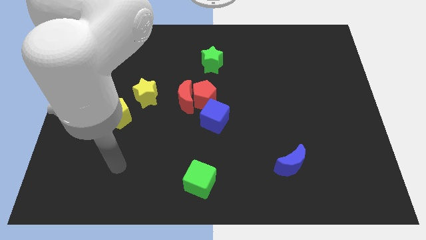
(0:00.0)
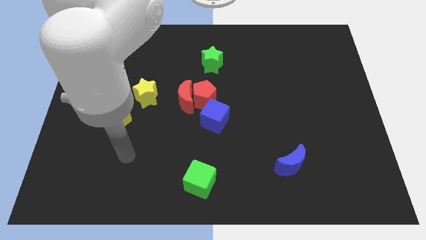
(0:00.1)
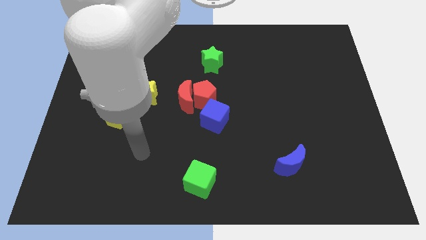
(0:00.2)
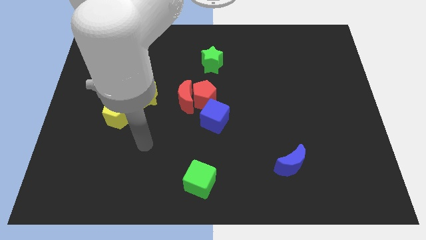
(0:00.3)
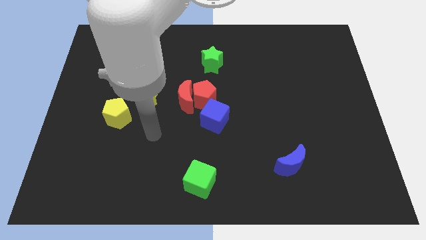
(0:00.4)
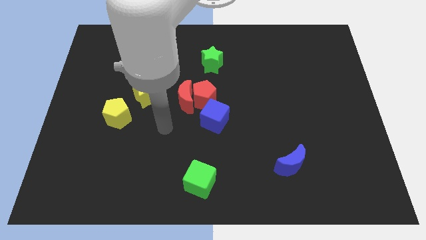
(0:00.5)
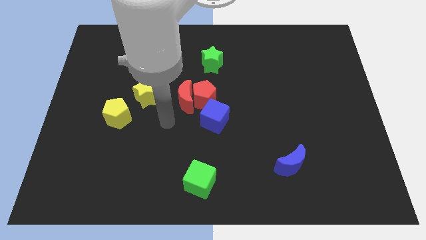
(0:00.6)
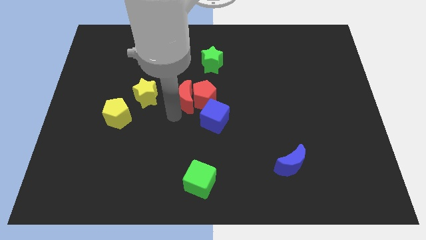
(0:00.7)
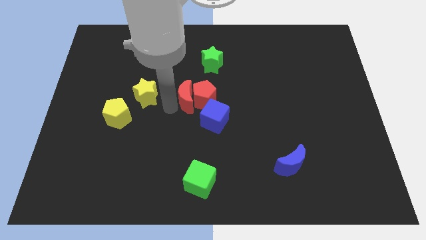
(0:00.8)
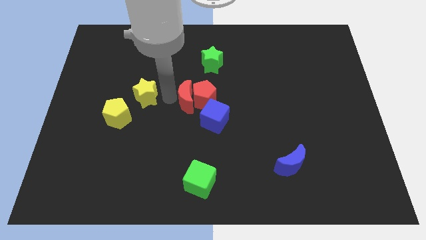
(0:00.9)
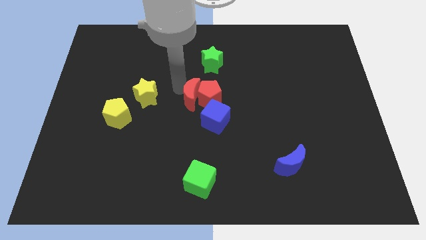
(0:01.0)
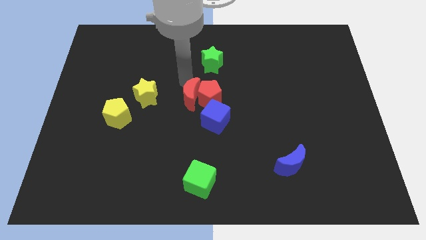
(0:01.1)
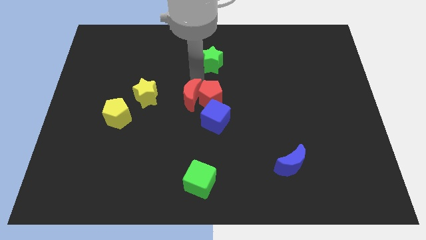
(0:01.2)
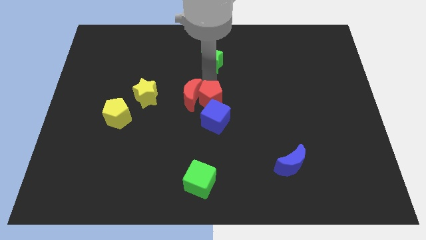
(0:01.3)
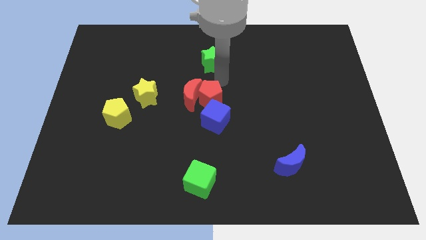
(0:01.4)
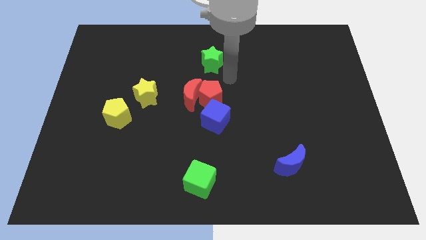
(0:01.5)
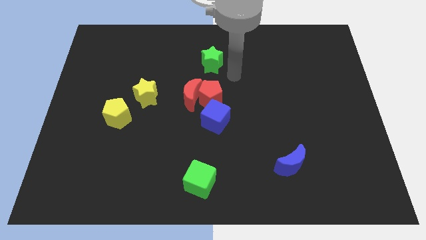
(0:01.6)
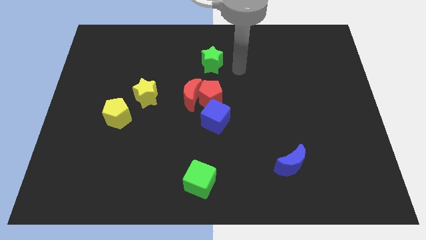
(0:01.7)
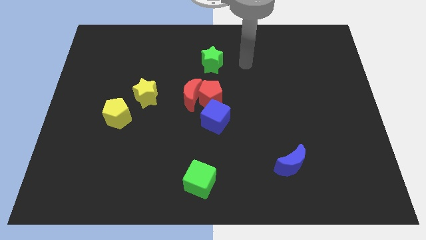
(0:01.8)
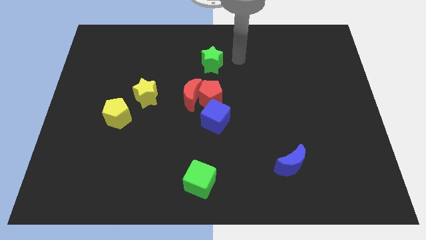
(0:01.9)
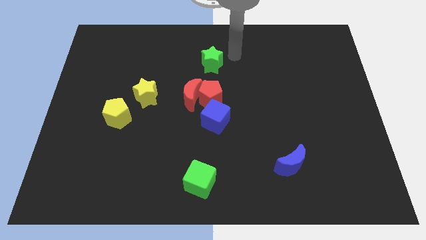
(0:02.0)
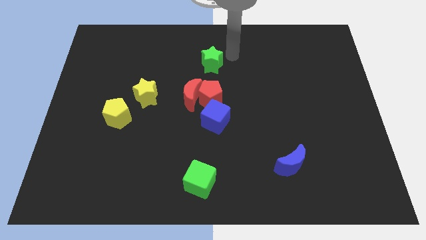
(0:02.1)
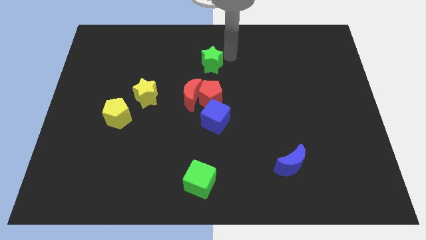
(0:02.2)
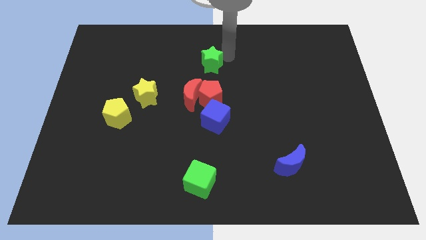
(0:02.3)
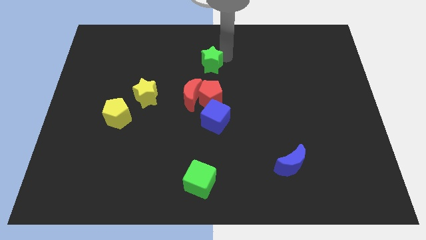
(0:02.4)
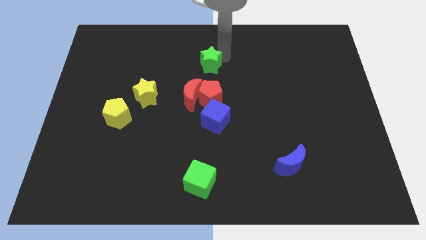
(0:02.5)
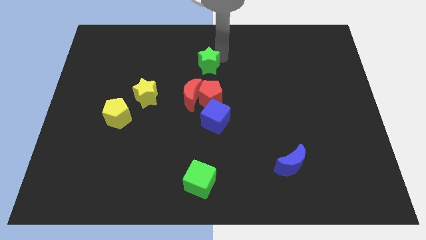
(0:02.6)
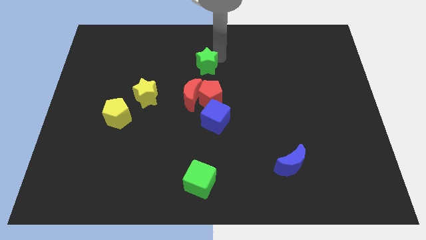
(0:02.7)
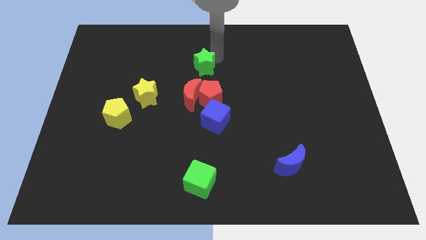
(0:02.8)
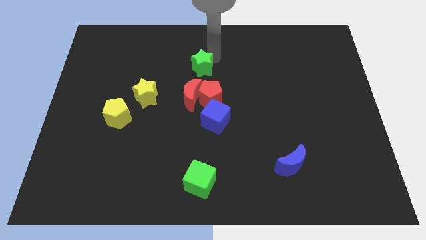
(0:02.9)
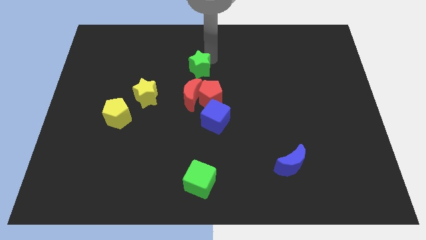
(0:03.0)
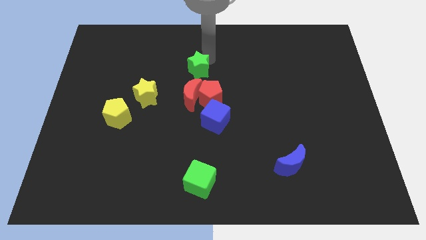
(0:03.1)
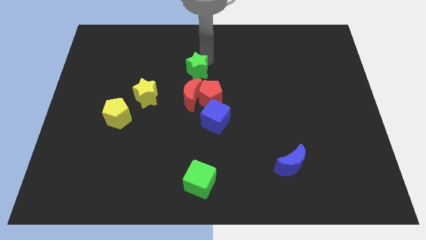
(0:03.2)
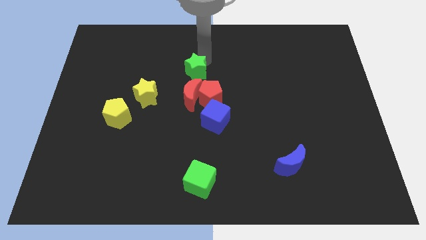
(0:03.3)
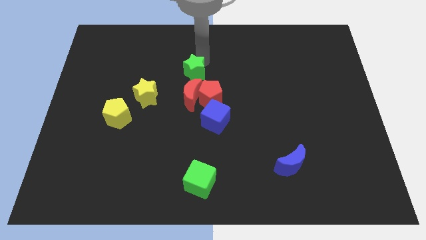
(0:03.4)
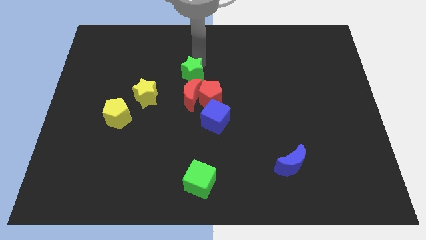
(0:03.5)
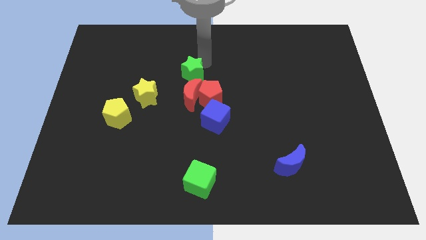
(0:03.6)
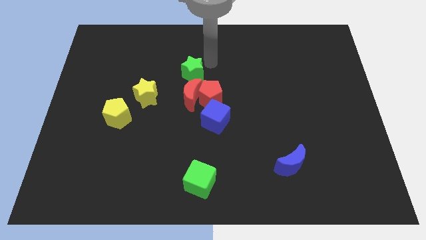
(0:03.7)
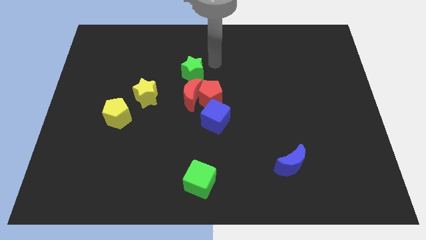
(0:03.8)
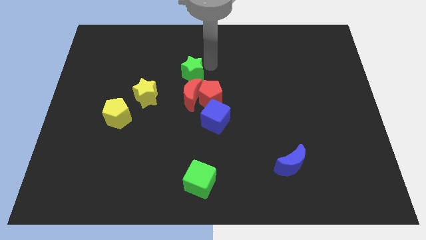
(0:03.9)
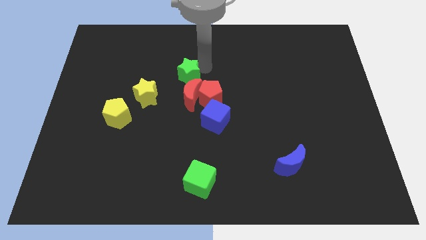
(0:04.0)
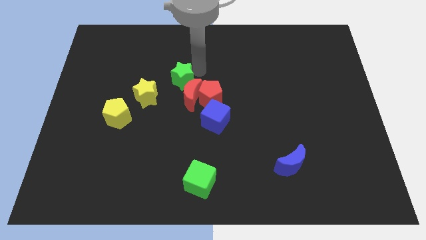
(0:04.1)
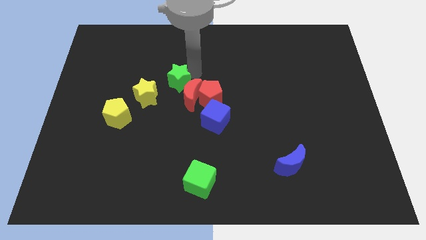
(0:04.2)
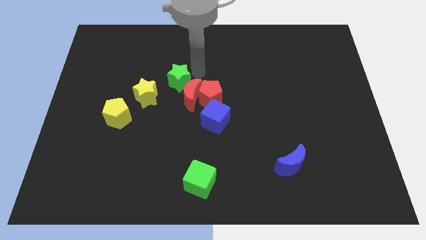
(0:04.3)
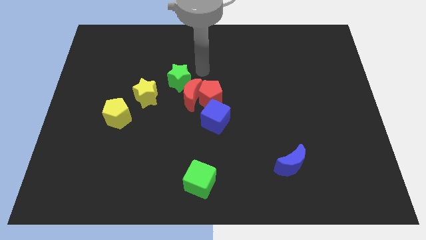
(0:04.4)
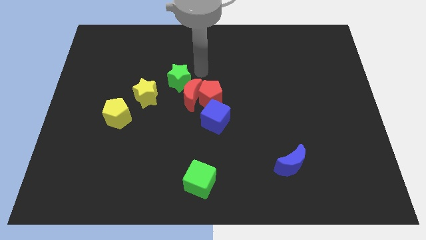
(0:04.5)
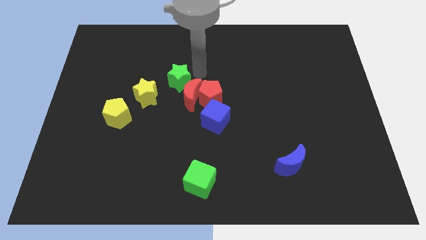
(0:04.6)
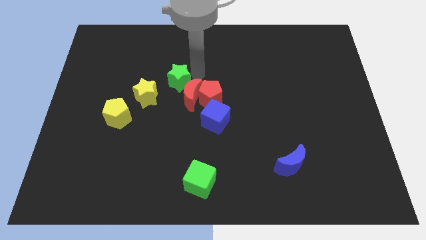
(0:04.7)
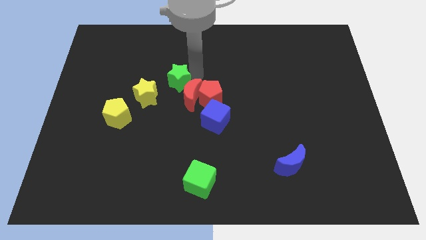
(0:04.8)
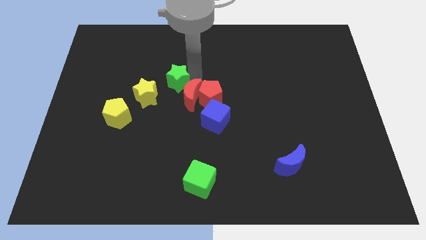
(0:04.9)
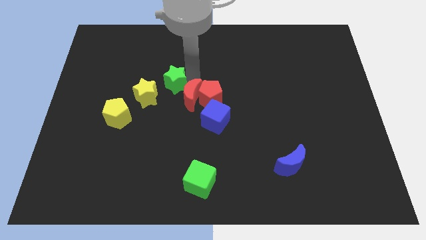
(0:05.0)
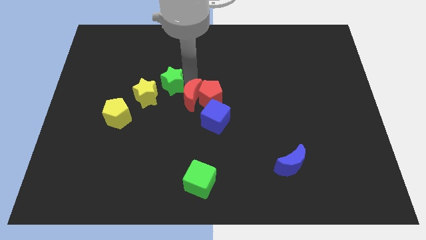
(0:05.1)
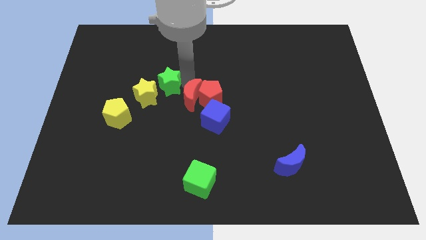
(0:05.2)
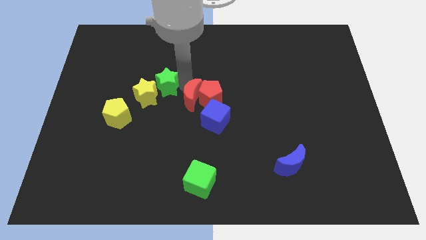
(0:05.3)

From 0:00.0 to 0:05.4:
put the green star to the yellow star

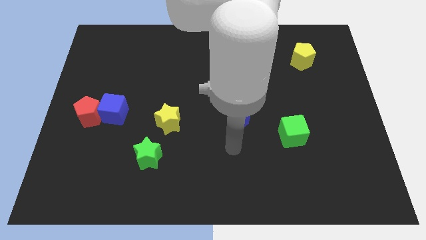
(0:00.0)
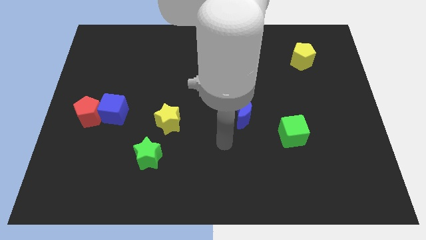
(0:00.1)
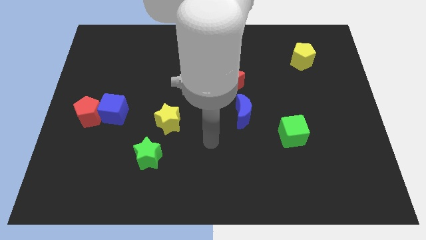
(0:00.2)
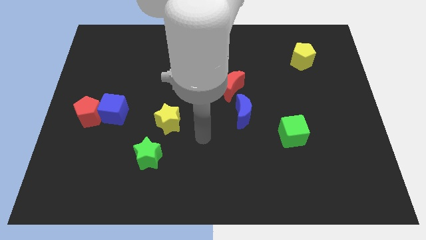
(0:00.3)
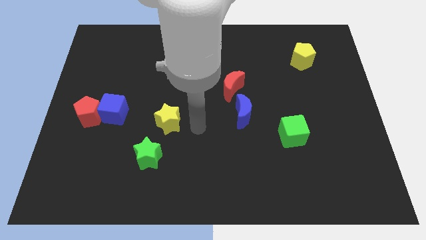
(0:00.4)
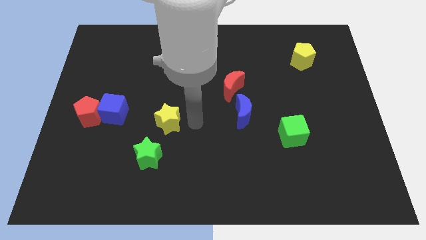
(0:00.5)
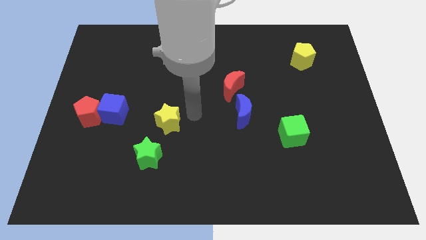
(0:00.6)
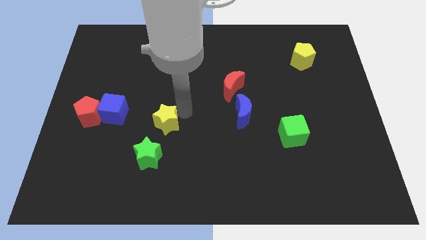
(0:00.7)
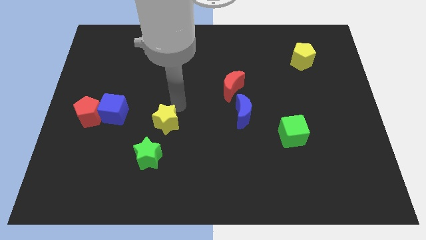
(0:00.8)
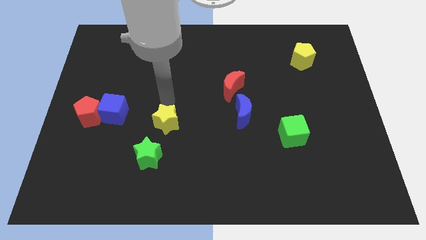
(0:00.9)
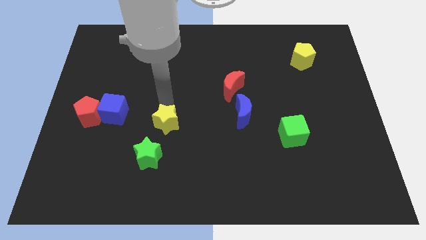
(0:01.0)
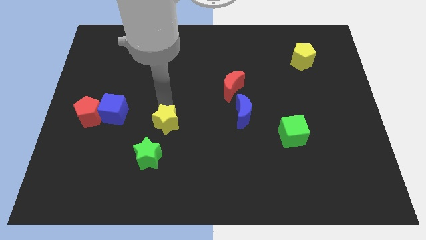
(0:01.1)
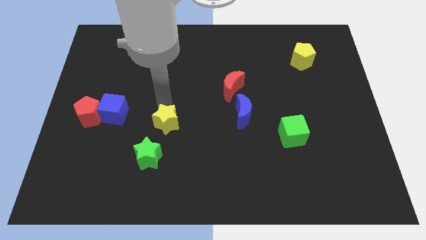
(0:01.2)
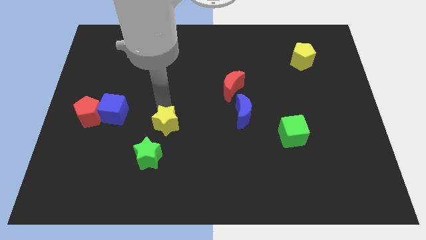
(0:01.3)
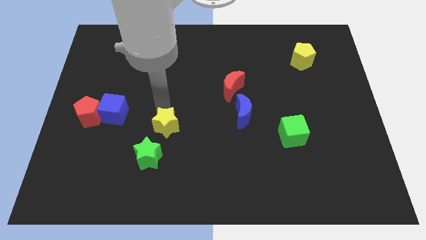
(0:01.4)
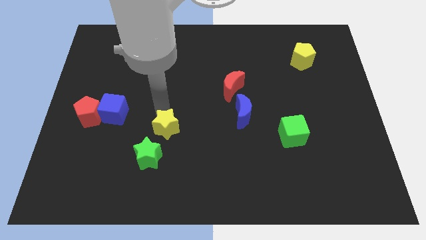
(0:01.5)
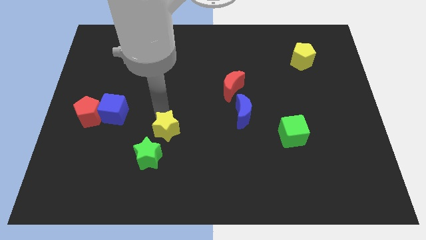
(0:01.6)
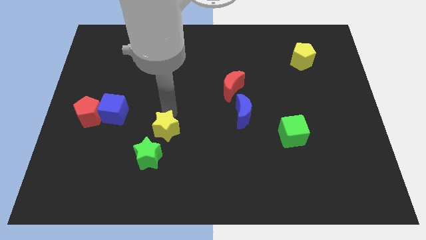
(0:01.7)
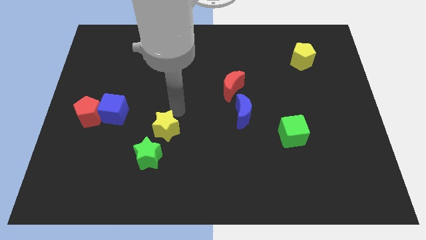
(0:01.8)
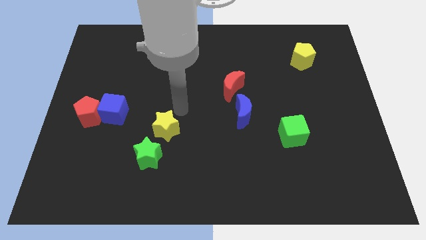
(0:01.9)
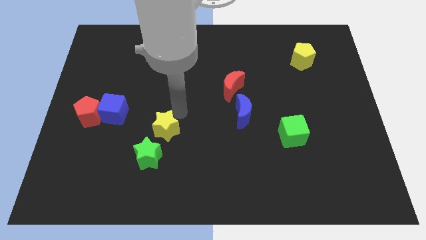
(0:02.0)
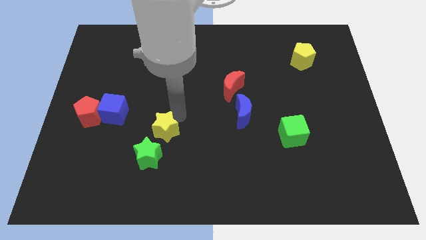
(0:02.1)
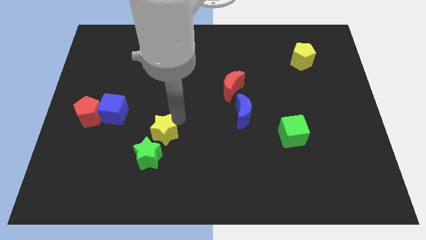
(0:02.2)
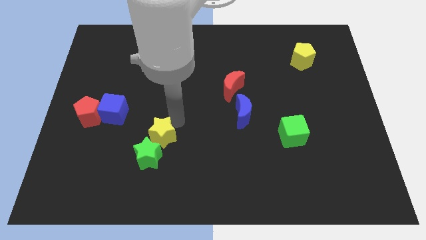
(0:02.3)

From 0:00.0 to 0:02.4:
move the yellow star to the green star
